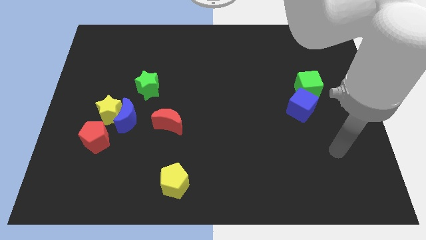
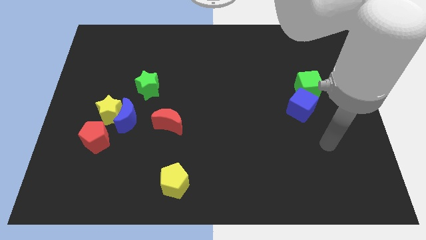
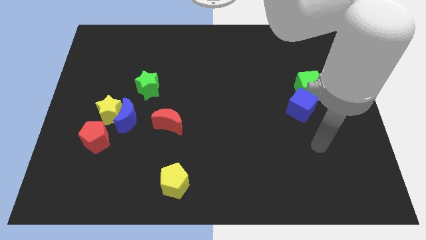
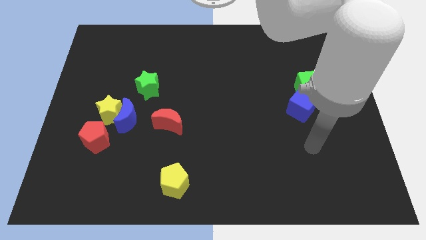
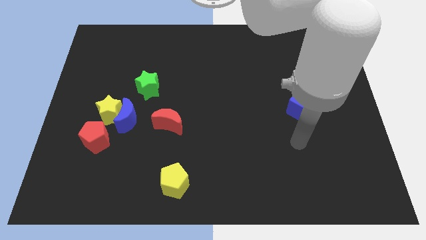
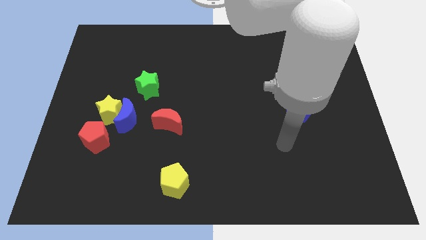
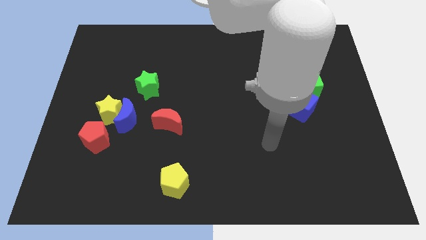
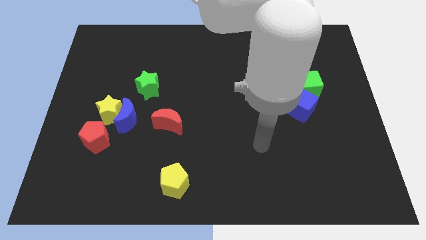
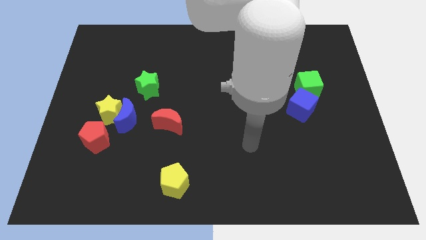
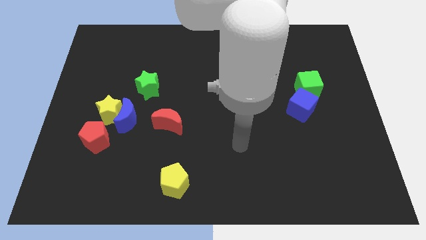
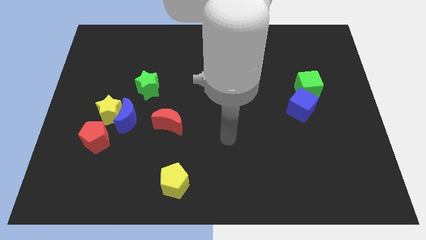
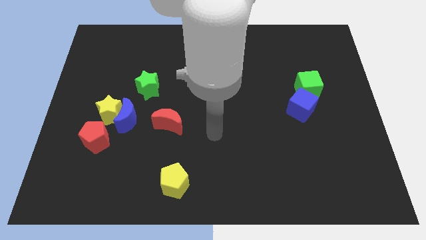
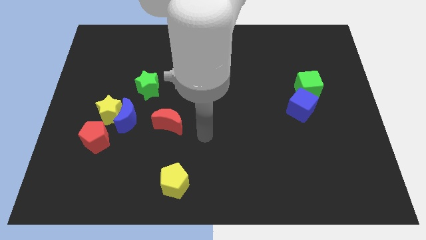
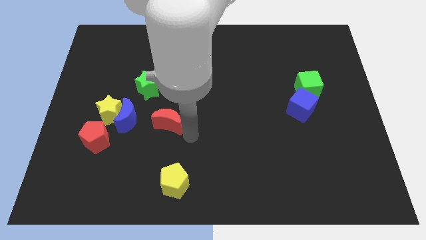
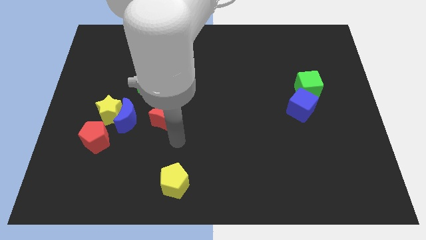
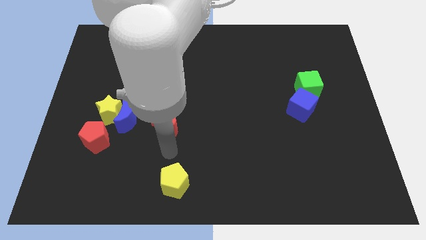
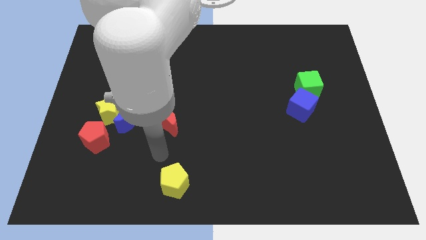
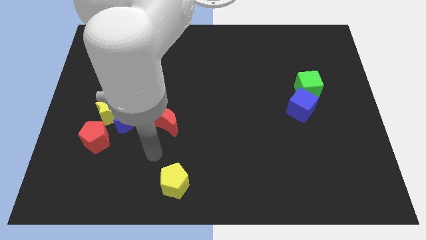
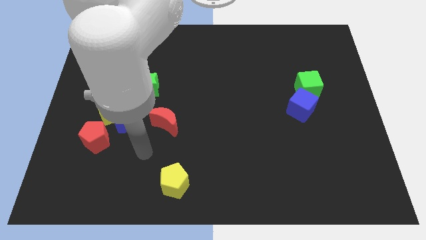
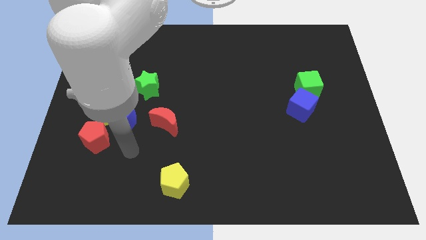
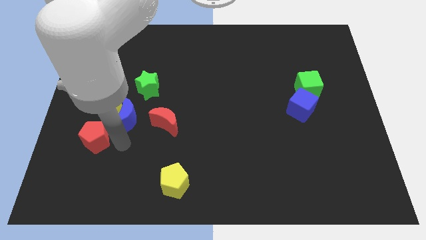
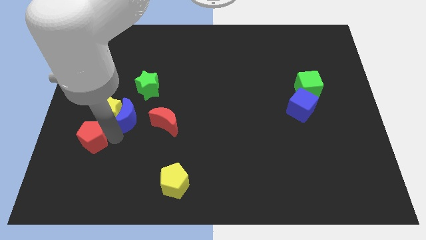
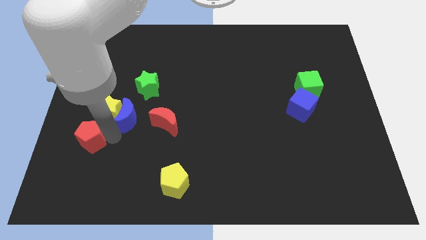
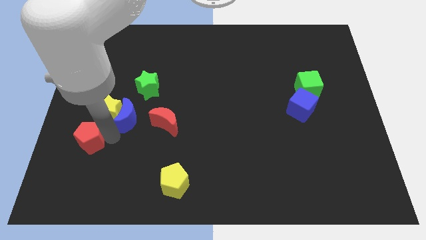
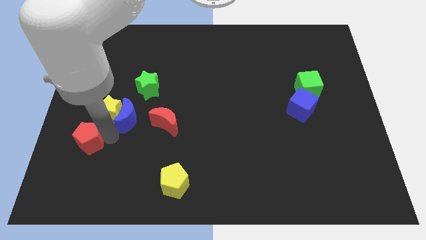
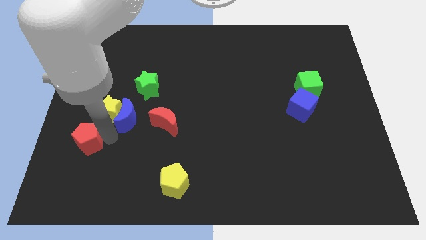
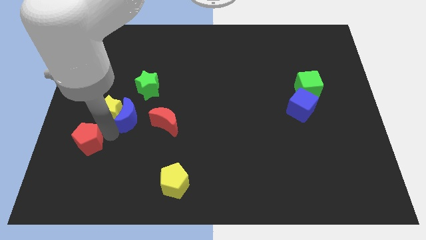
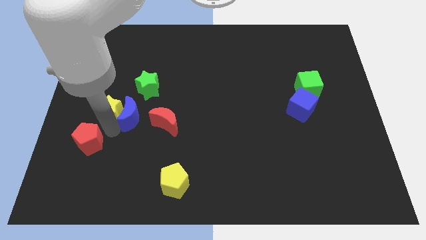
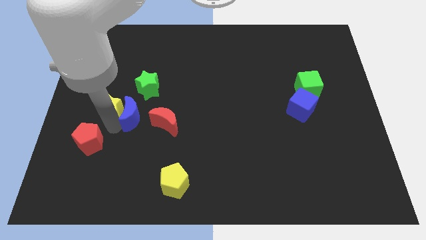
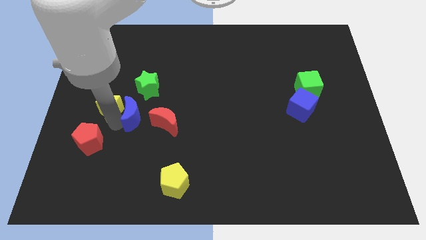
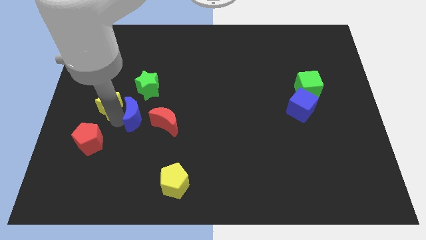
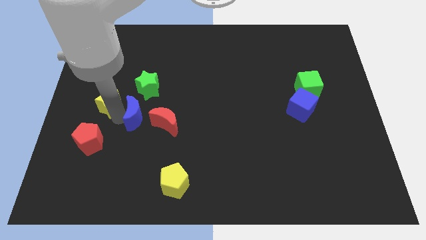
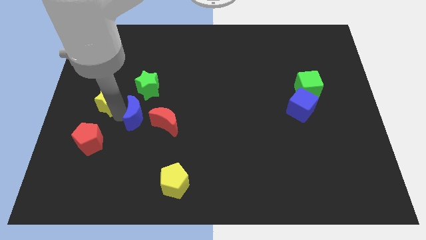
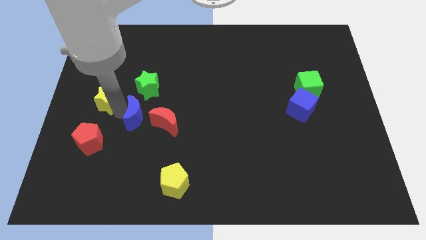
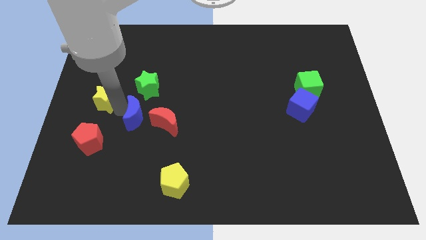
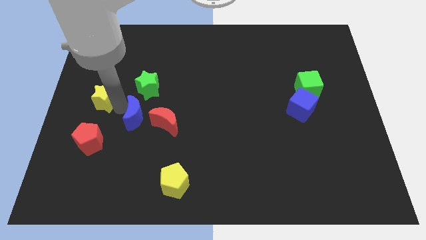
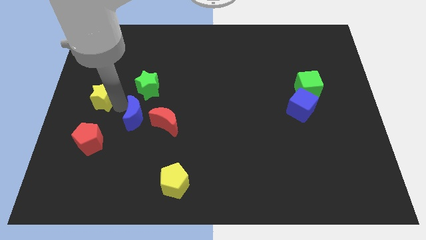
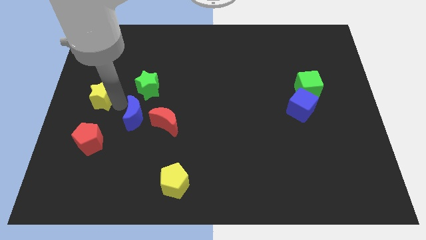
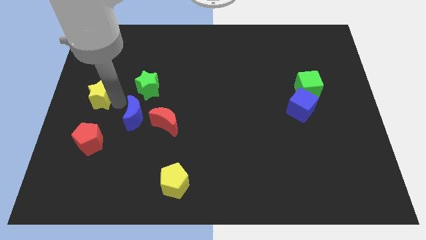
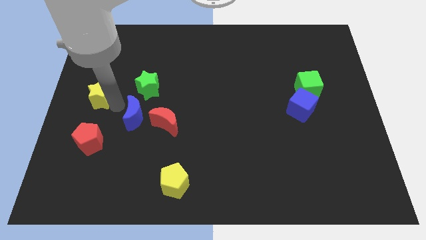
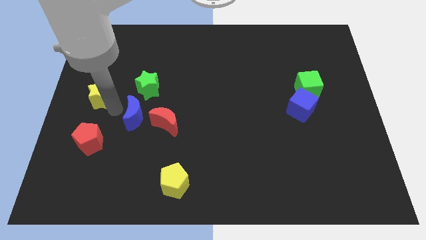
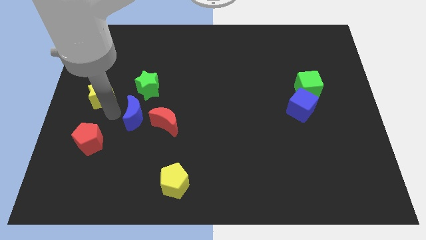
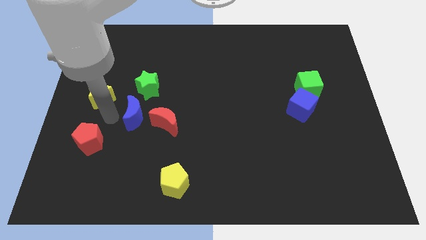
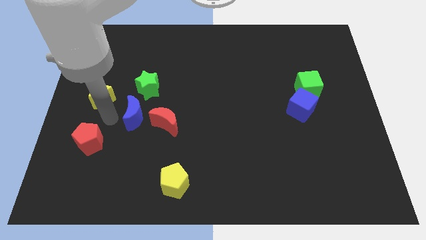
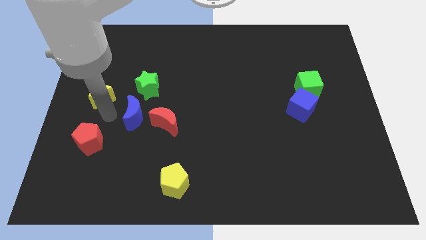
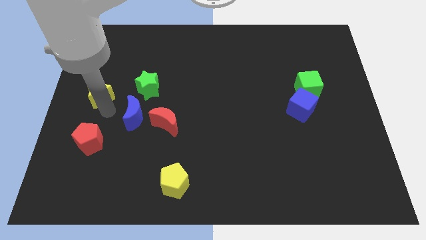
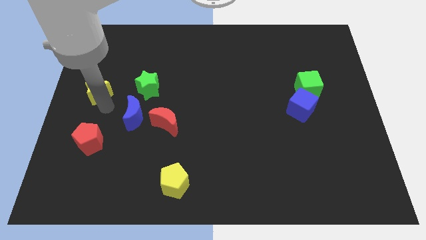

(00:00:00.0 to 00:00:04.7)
move the yellow star away from the blue moon and red pentagon

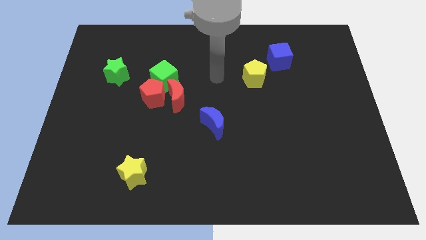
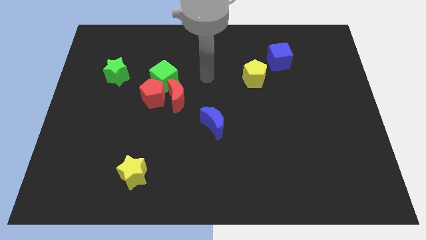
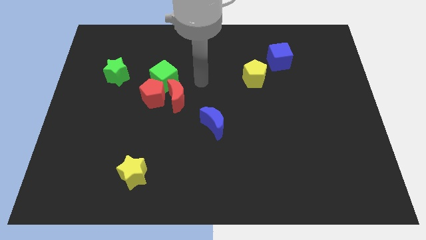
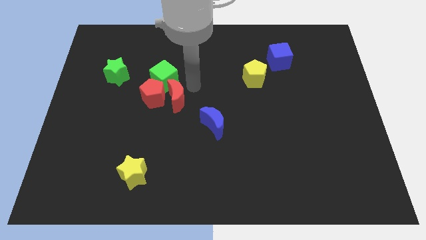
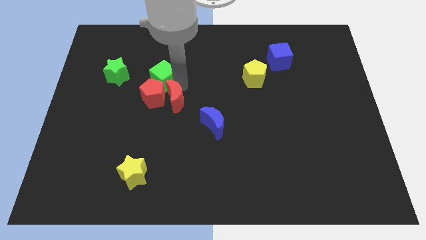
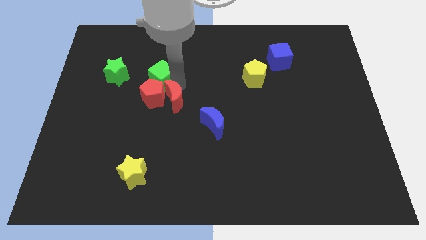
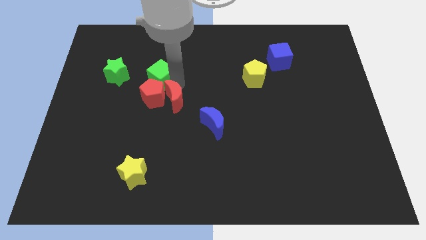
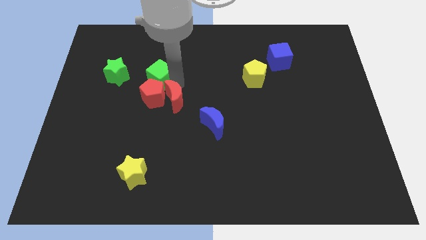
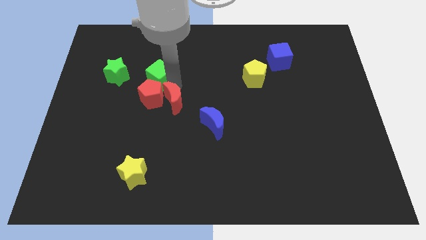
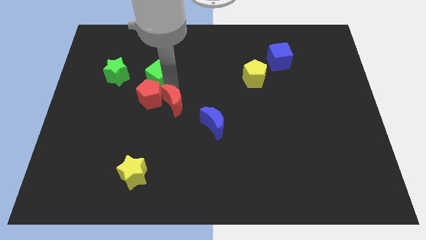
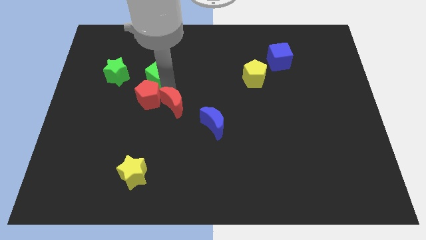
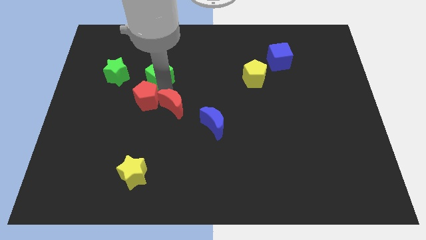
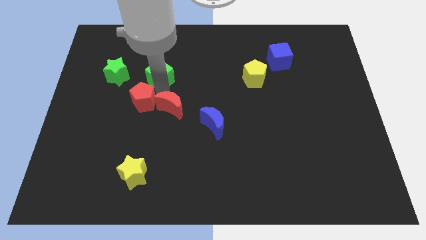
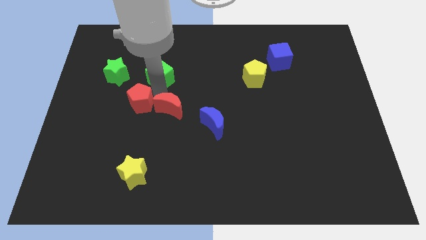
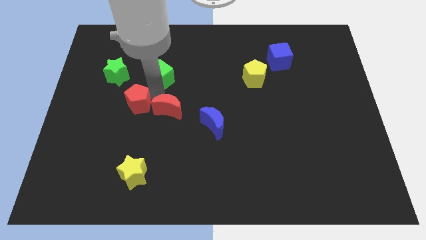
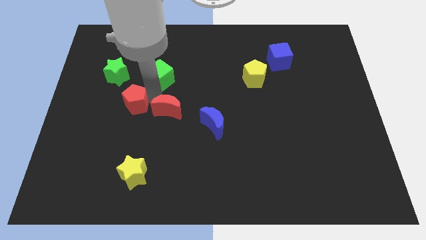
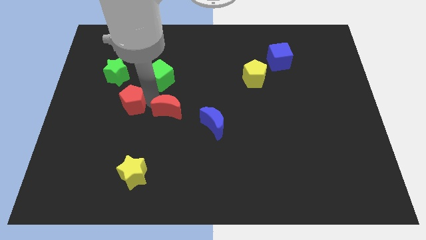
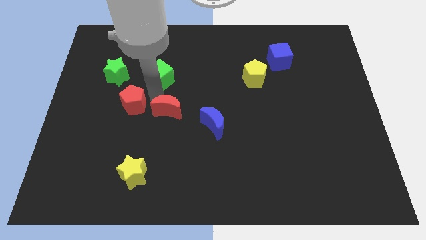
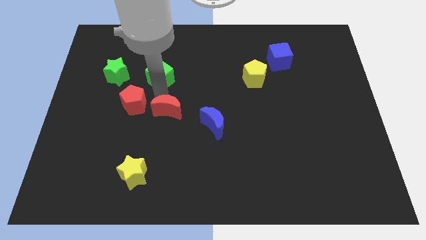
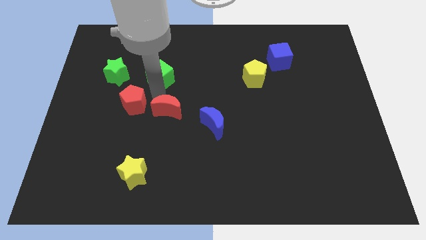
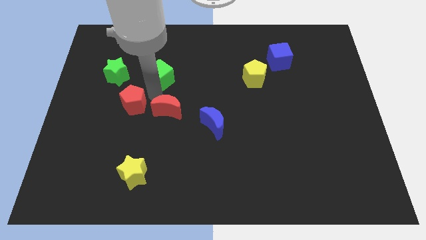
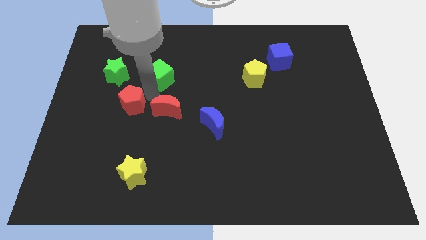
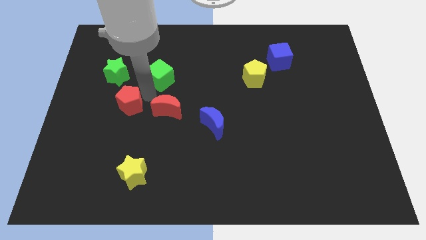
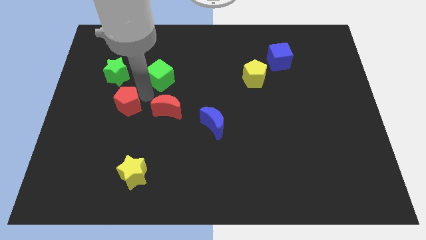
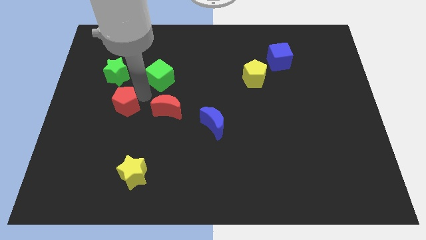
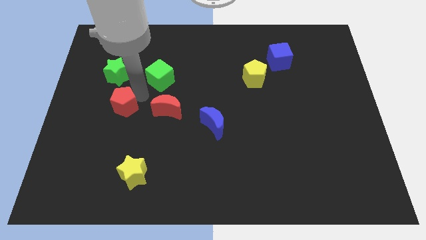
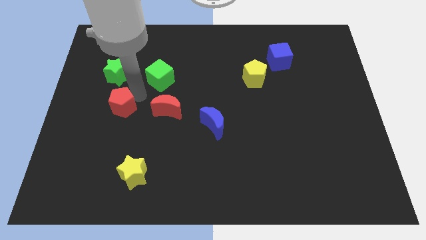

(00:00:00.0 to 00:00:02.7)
pull the red pentagon apart from the red moon and green cube

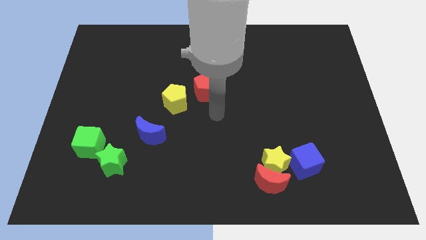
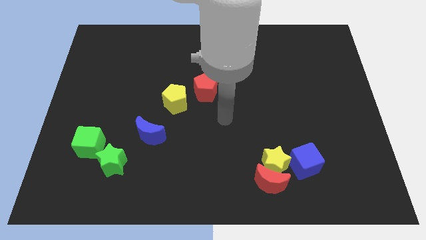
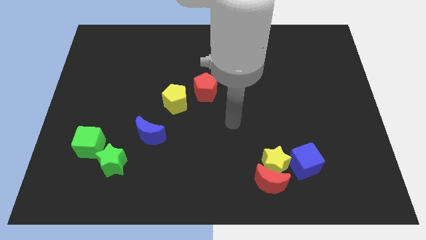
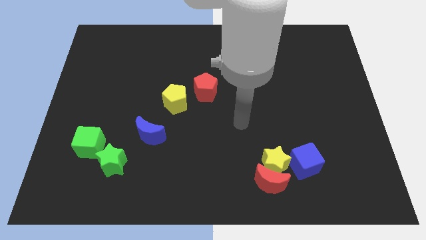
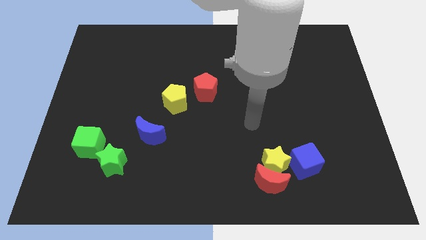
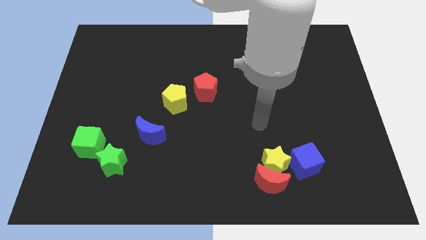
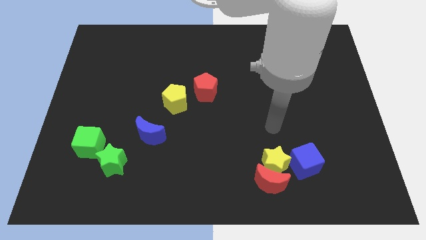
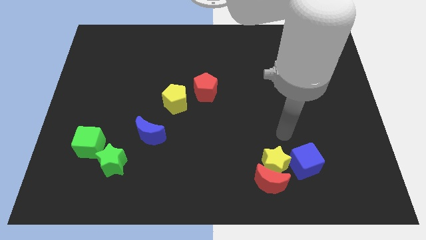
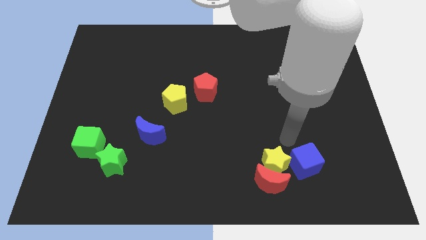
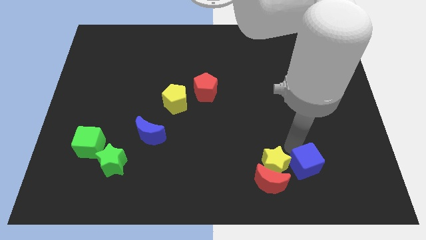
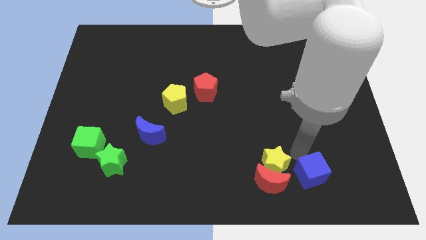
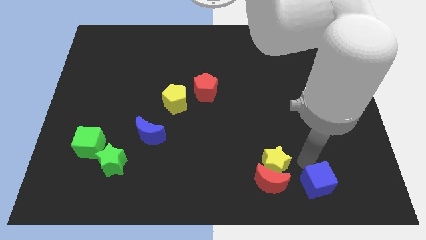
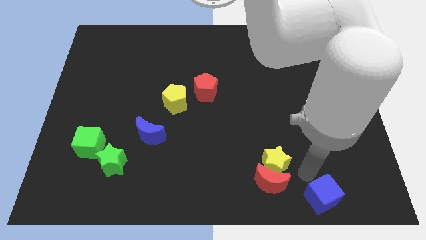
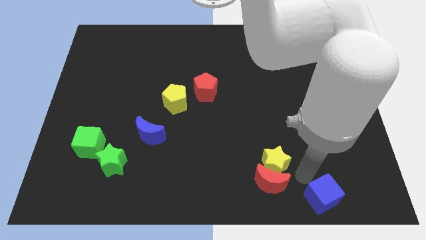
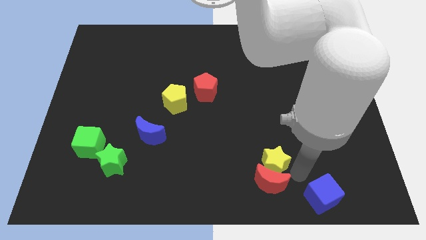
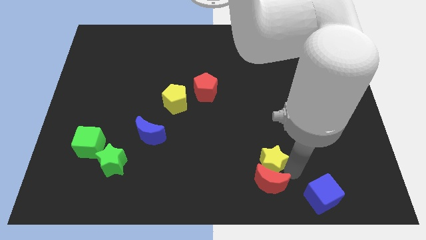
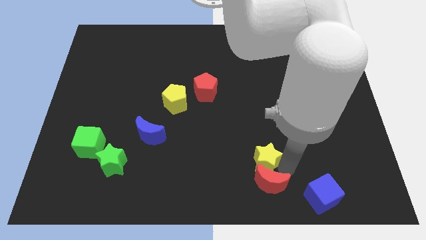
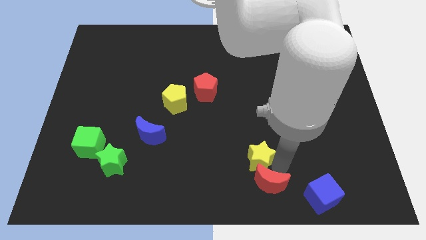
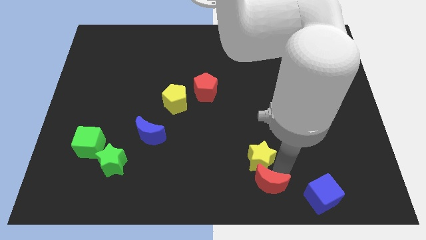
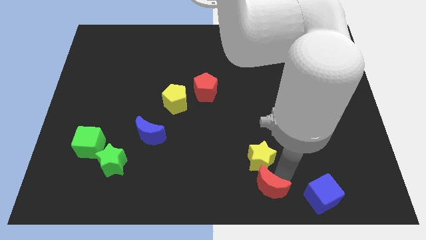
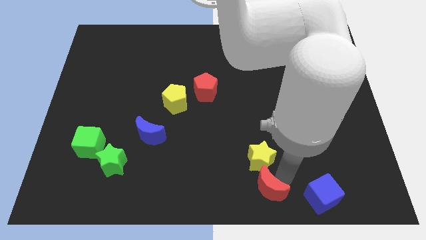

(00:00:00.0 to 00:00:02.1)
pull the yellow star apart from the red moon and blue cube
